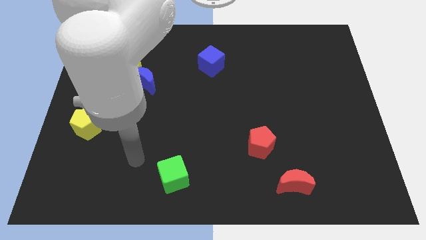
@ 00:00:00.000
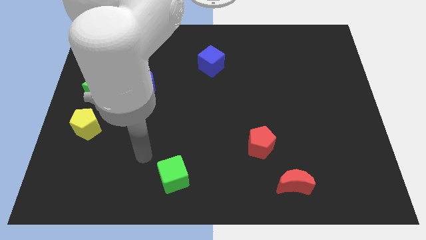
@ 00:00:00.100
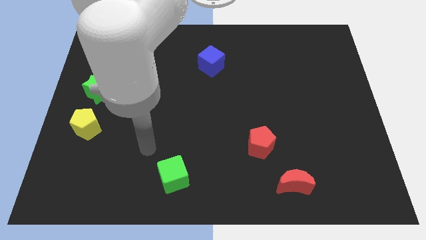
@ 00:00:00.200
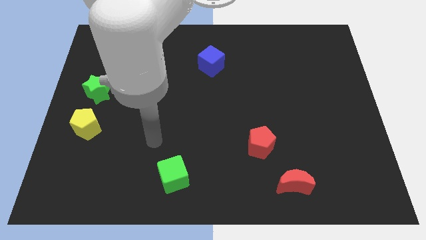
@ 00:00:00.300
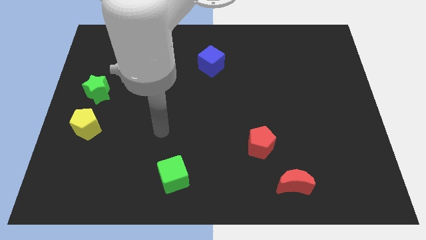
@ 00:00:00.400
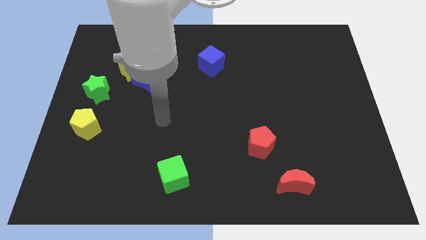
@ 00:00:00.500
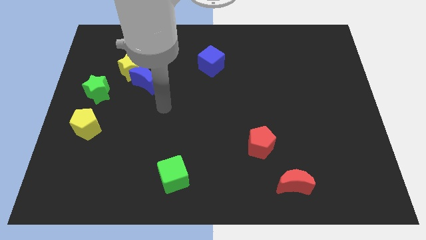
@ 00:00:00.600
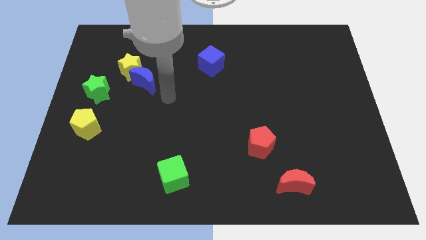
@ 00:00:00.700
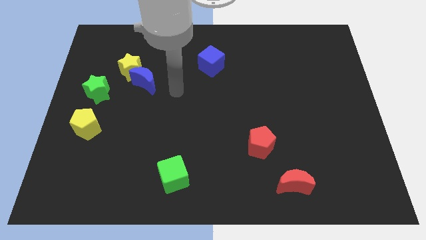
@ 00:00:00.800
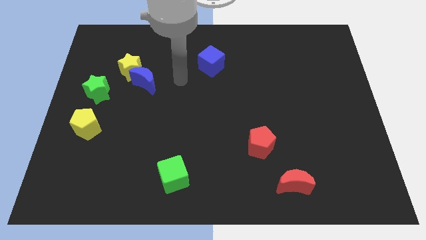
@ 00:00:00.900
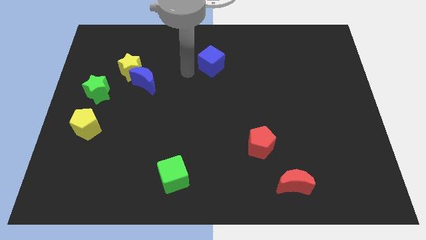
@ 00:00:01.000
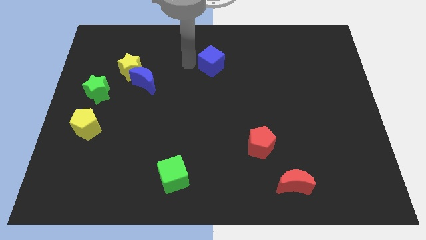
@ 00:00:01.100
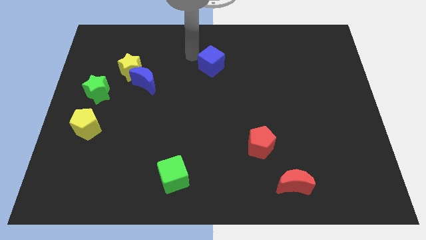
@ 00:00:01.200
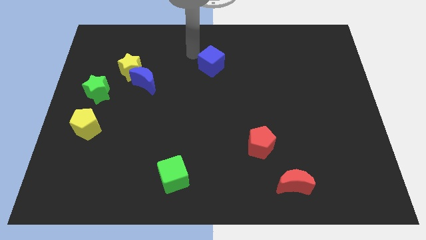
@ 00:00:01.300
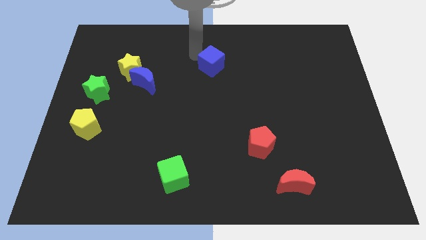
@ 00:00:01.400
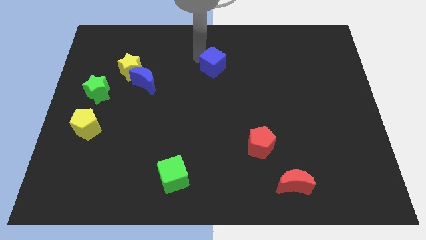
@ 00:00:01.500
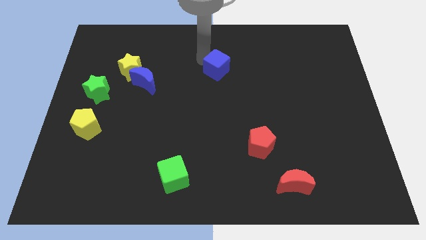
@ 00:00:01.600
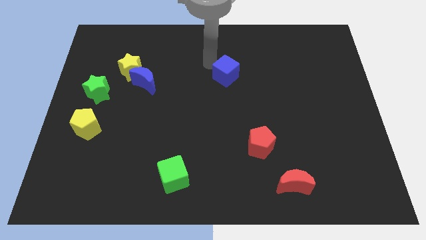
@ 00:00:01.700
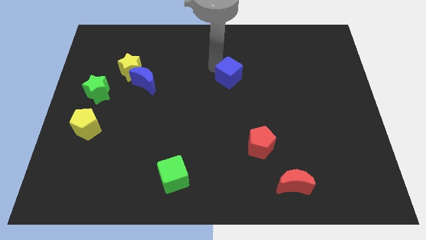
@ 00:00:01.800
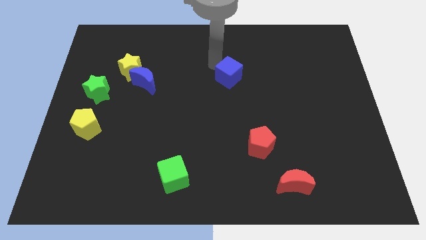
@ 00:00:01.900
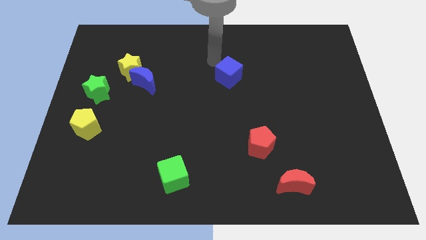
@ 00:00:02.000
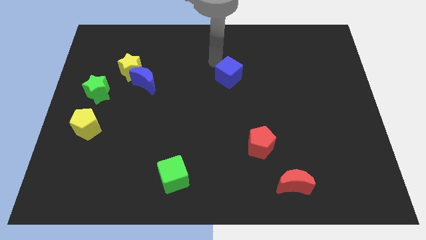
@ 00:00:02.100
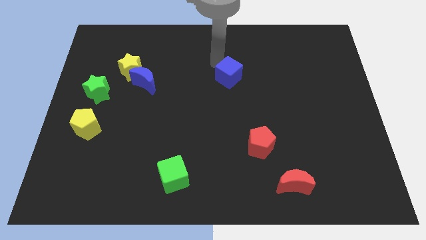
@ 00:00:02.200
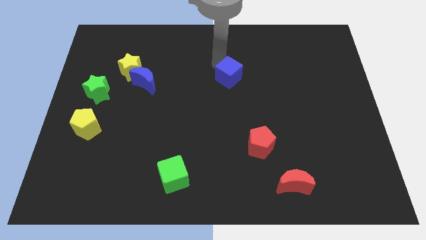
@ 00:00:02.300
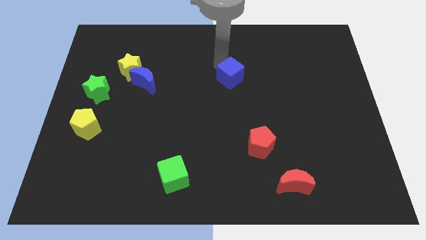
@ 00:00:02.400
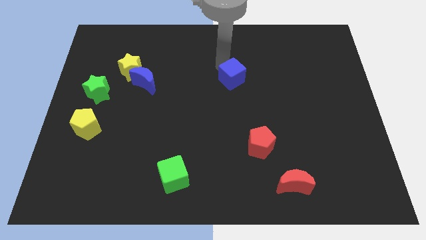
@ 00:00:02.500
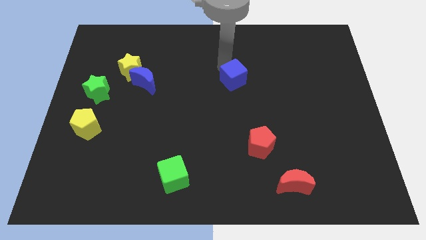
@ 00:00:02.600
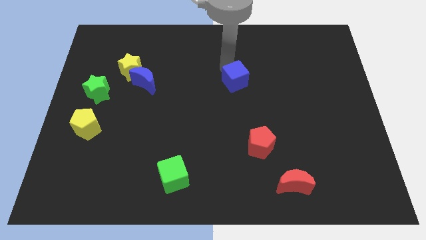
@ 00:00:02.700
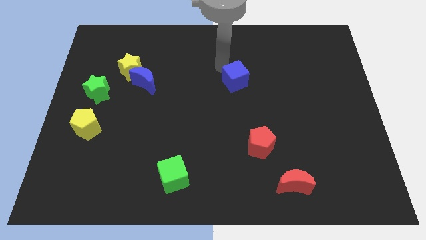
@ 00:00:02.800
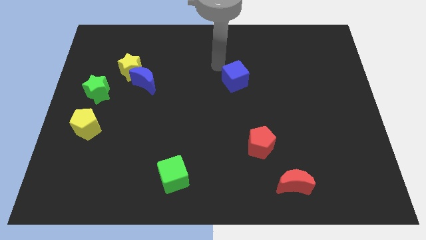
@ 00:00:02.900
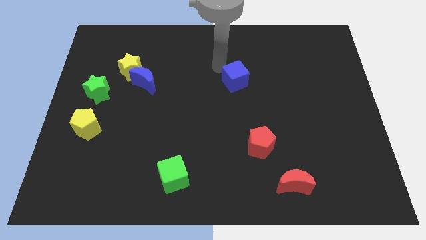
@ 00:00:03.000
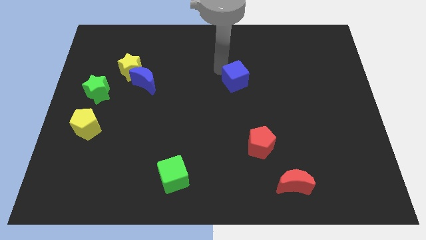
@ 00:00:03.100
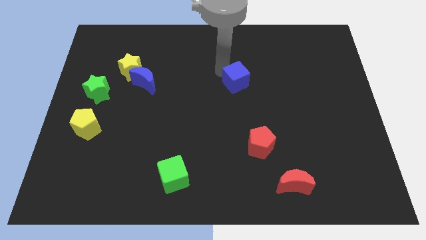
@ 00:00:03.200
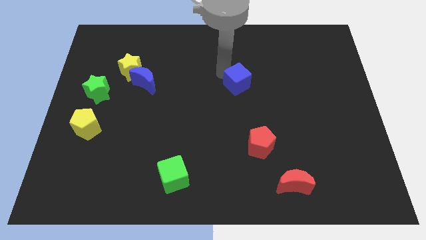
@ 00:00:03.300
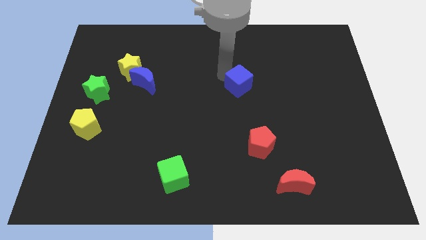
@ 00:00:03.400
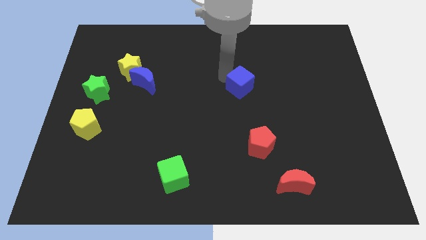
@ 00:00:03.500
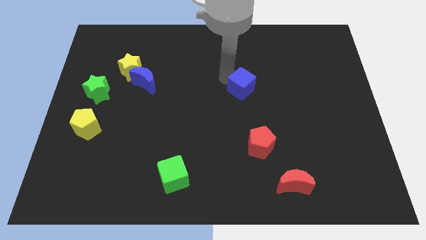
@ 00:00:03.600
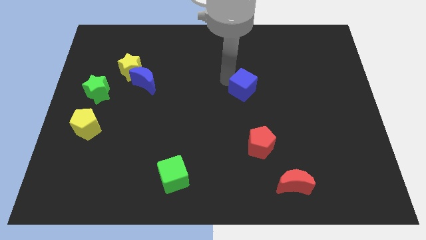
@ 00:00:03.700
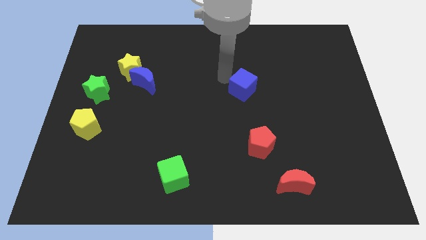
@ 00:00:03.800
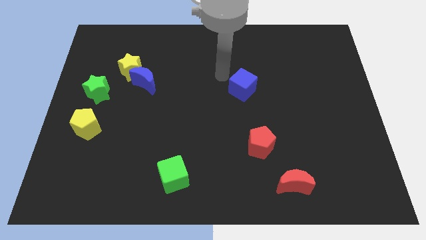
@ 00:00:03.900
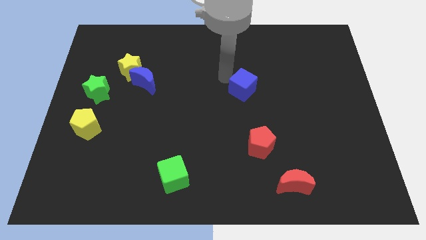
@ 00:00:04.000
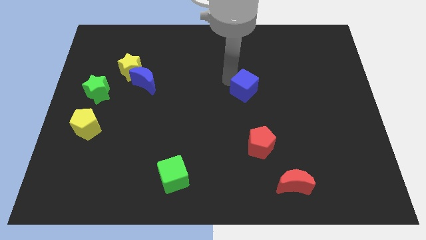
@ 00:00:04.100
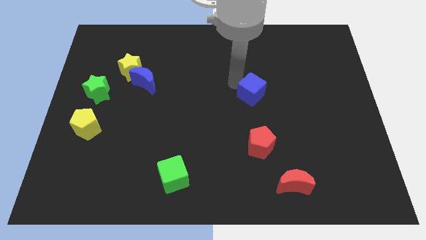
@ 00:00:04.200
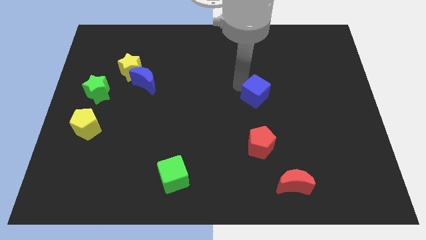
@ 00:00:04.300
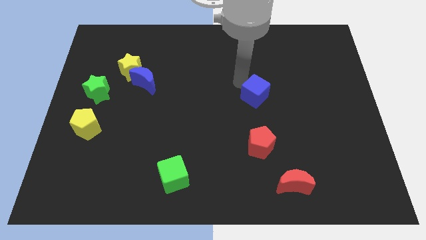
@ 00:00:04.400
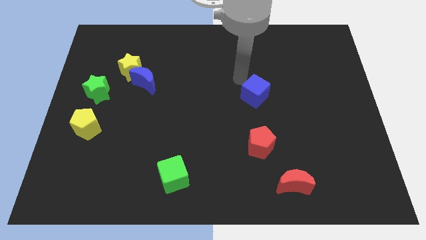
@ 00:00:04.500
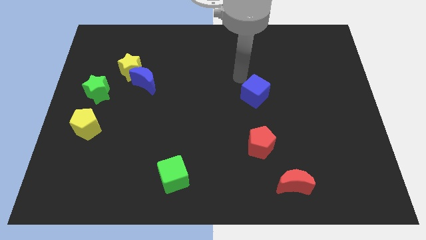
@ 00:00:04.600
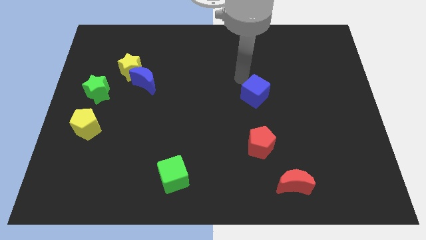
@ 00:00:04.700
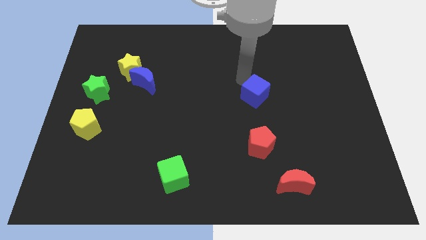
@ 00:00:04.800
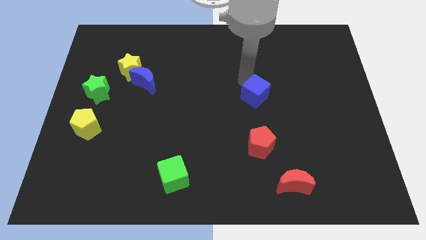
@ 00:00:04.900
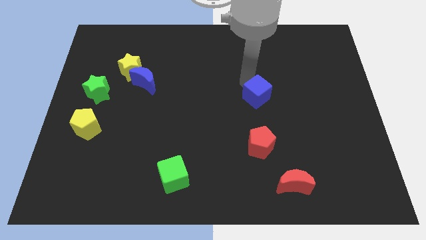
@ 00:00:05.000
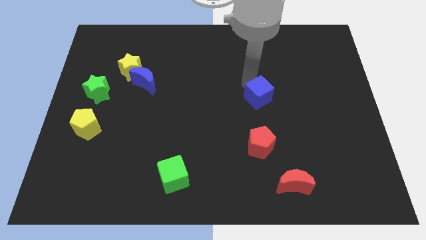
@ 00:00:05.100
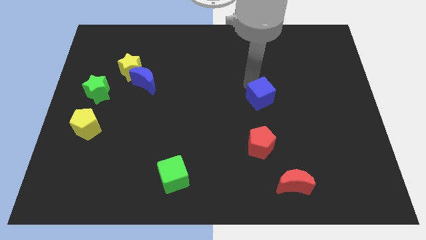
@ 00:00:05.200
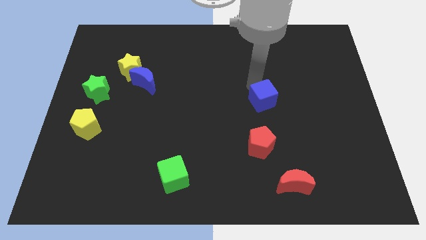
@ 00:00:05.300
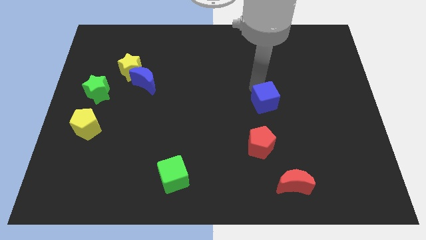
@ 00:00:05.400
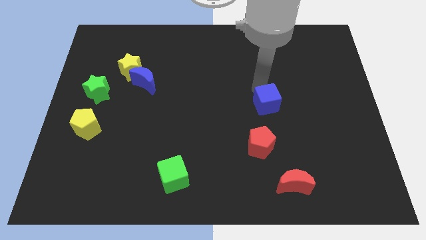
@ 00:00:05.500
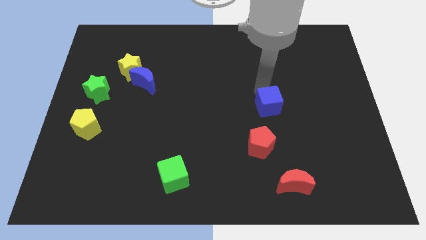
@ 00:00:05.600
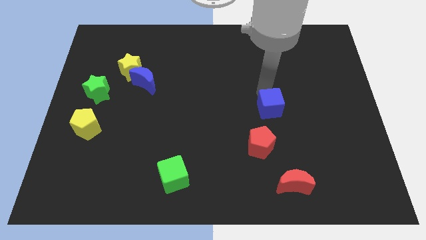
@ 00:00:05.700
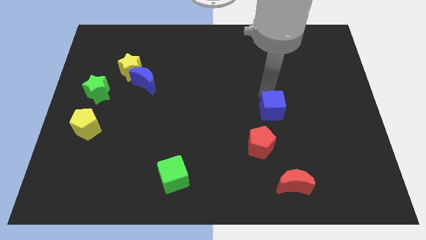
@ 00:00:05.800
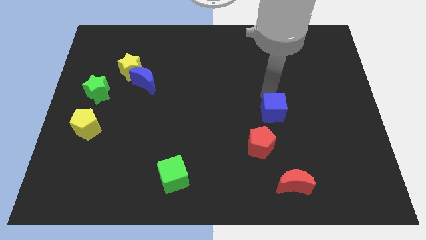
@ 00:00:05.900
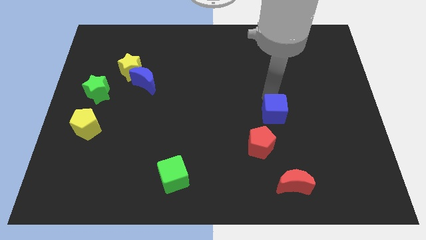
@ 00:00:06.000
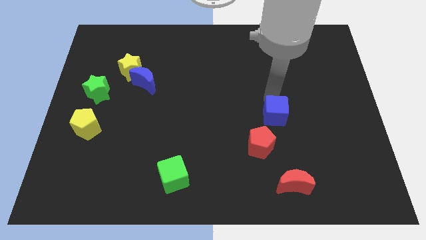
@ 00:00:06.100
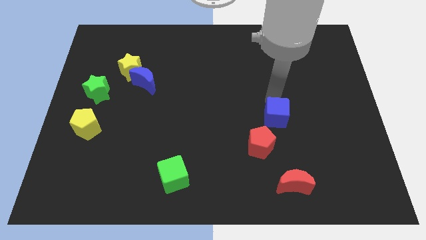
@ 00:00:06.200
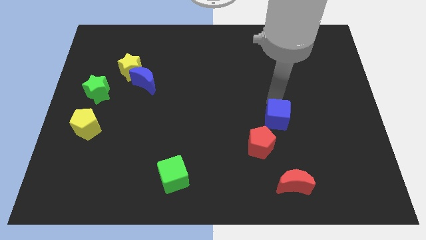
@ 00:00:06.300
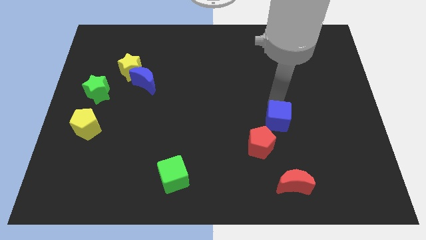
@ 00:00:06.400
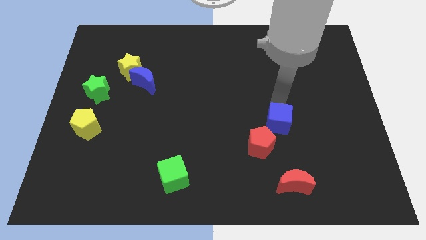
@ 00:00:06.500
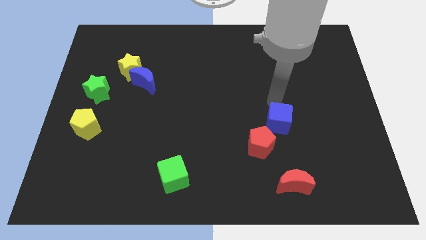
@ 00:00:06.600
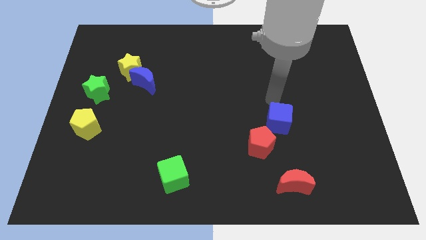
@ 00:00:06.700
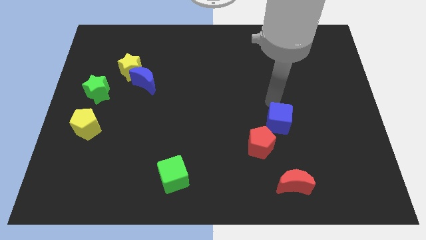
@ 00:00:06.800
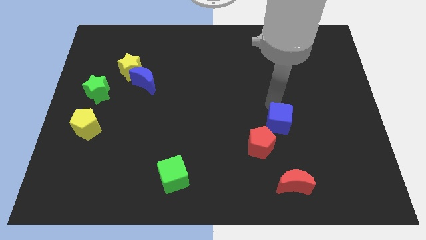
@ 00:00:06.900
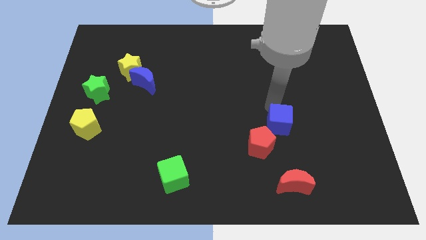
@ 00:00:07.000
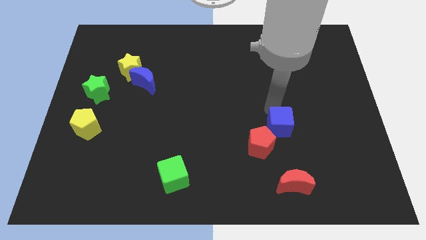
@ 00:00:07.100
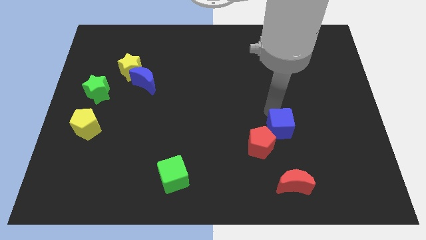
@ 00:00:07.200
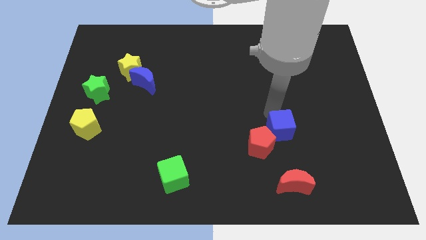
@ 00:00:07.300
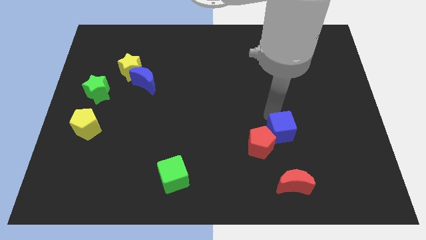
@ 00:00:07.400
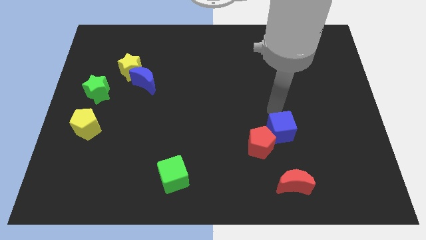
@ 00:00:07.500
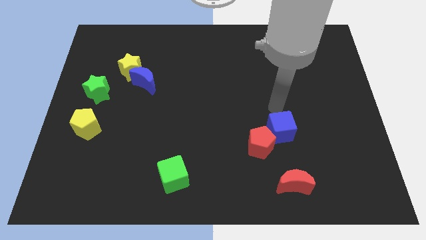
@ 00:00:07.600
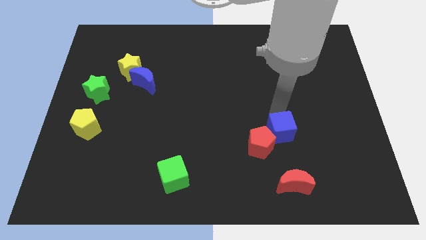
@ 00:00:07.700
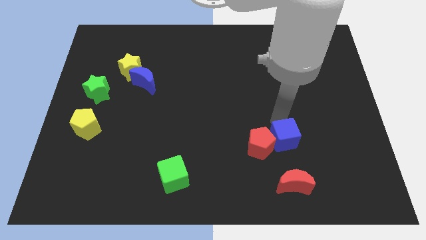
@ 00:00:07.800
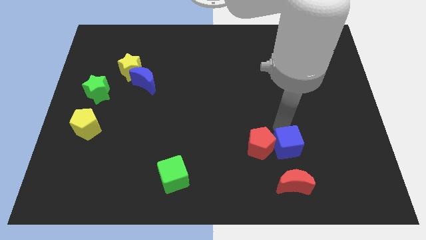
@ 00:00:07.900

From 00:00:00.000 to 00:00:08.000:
put the blue cube to the bottom right of the red pentagon
